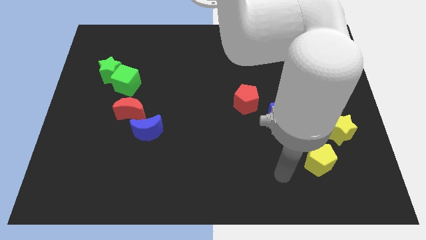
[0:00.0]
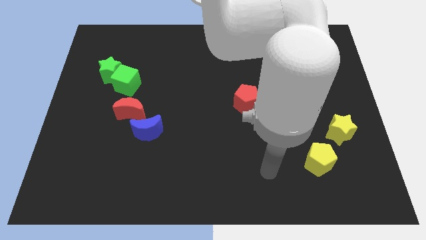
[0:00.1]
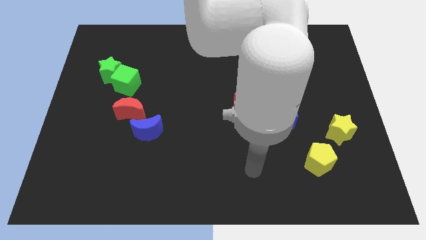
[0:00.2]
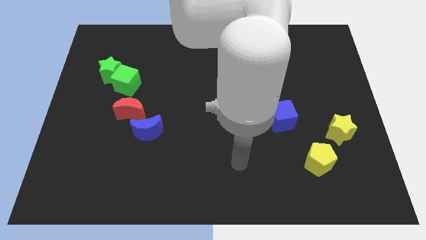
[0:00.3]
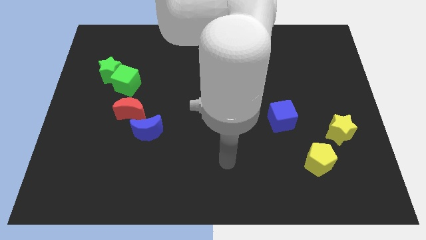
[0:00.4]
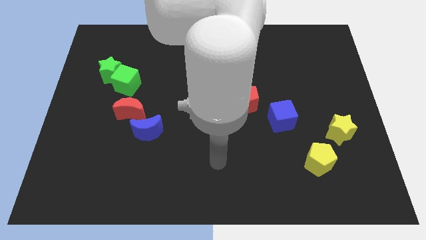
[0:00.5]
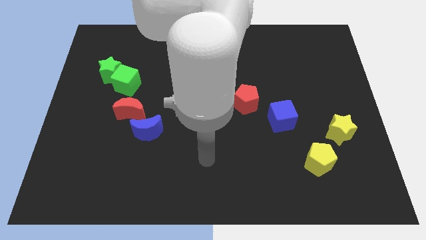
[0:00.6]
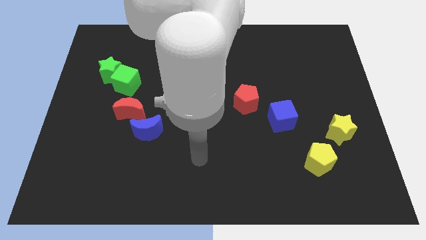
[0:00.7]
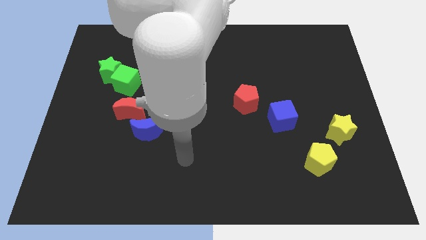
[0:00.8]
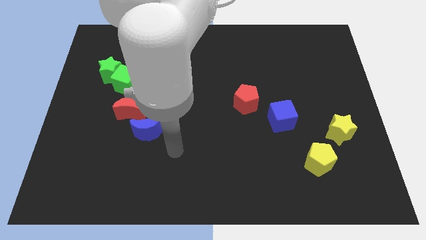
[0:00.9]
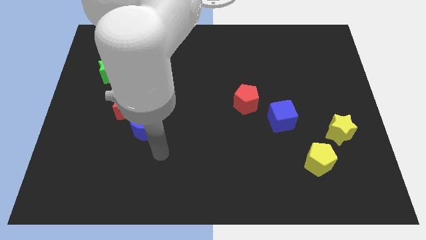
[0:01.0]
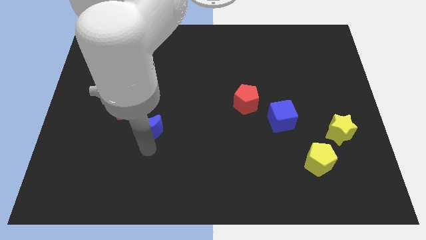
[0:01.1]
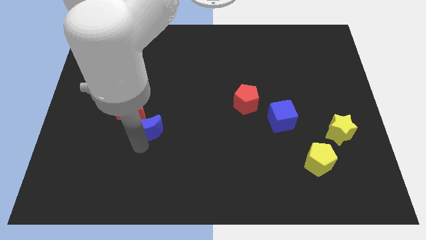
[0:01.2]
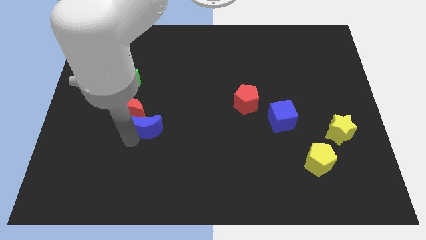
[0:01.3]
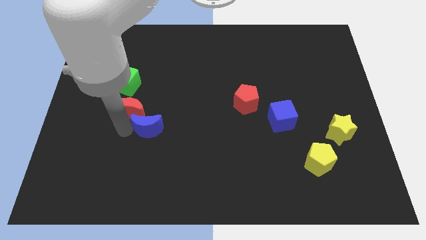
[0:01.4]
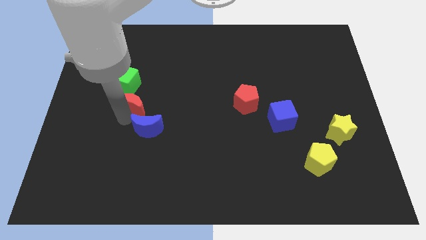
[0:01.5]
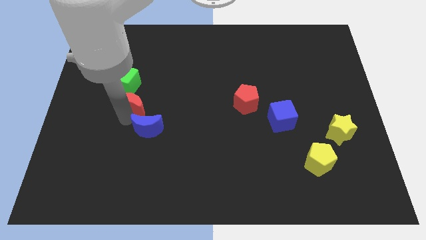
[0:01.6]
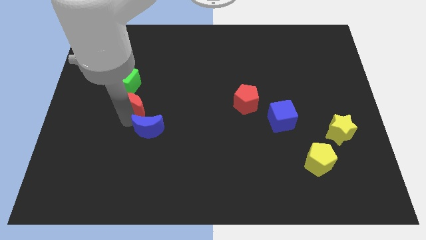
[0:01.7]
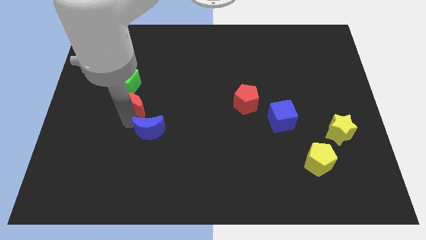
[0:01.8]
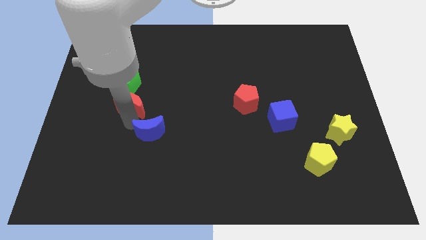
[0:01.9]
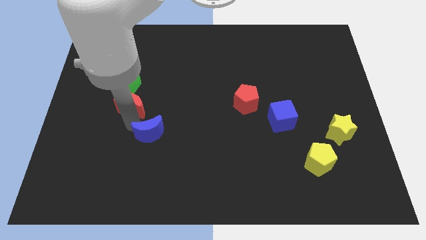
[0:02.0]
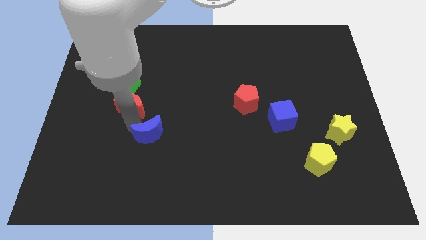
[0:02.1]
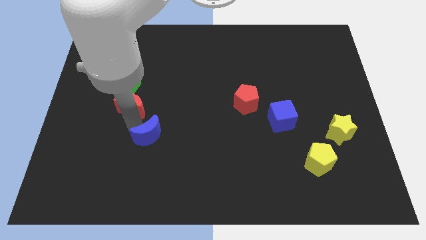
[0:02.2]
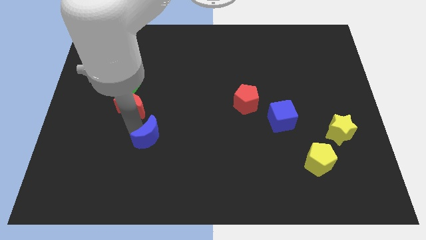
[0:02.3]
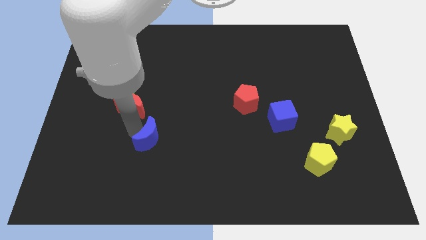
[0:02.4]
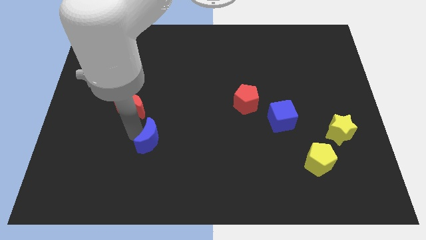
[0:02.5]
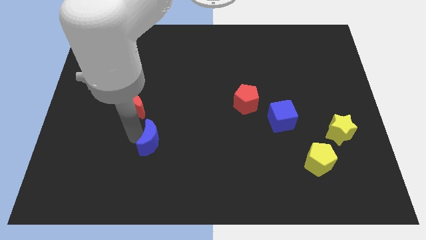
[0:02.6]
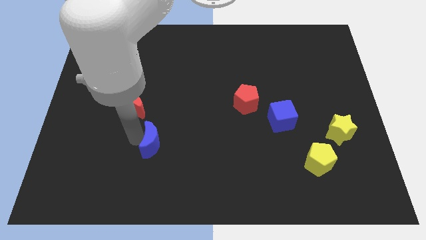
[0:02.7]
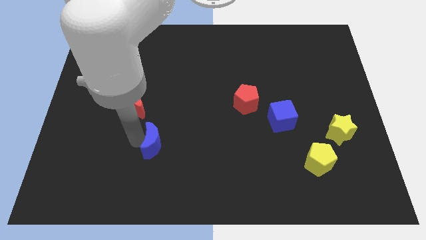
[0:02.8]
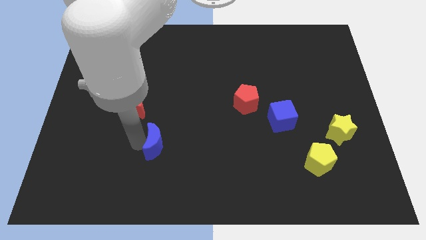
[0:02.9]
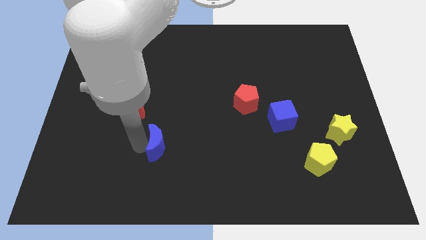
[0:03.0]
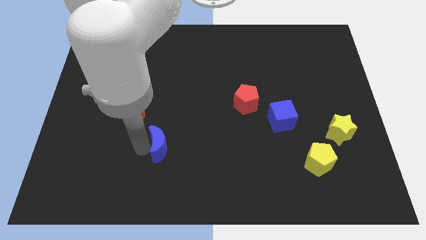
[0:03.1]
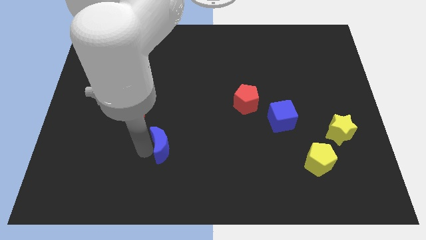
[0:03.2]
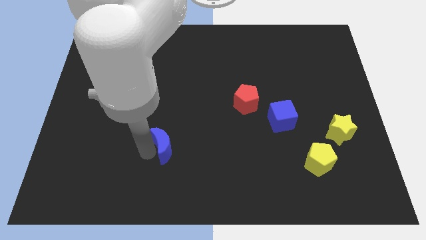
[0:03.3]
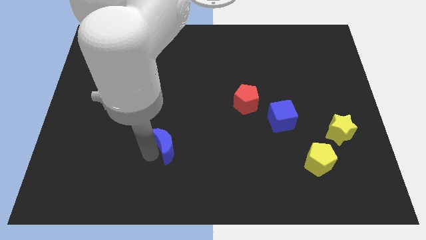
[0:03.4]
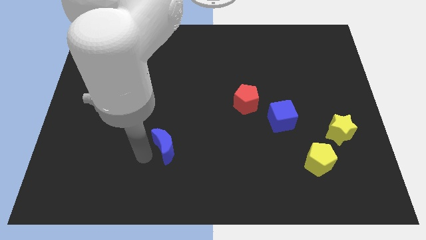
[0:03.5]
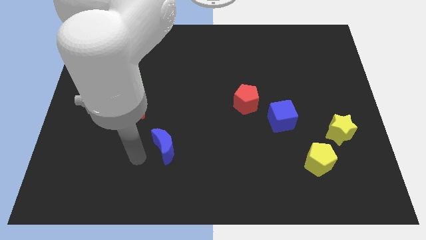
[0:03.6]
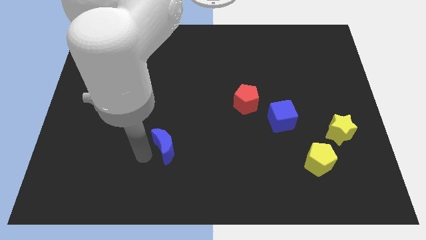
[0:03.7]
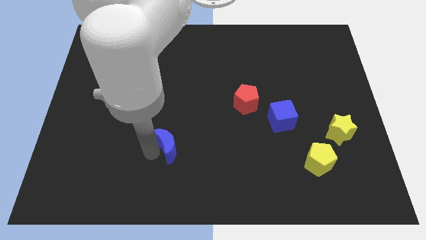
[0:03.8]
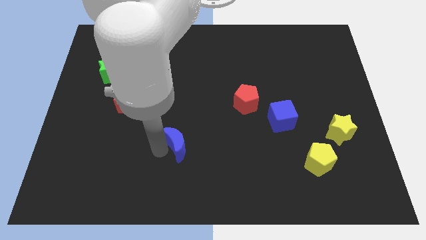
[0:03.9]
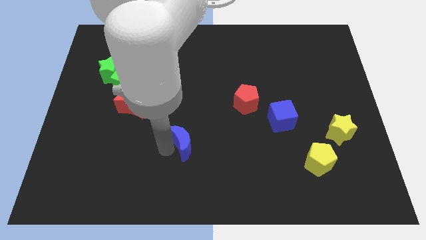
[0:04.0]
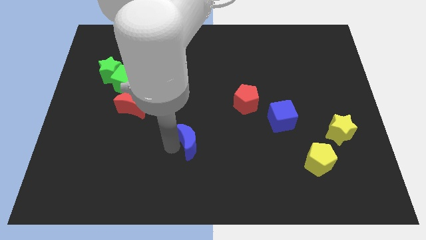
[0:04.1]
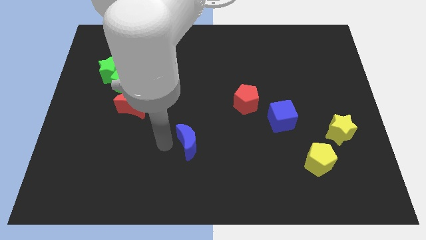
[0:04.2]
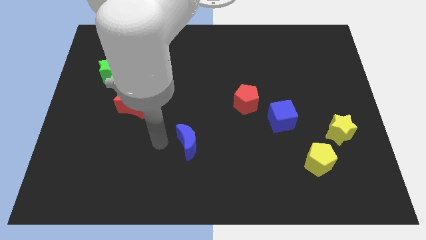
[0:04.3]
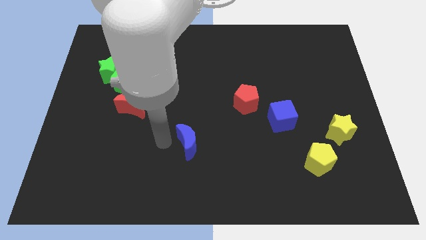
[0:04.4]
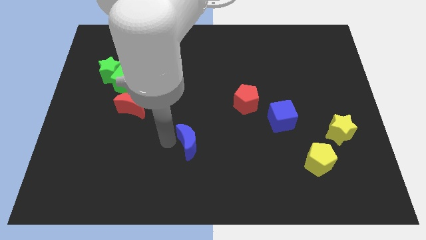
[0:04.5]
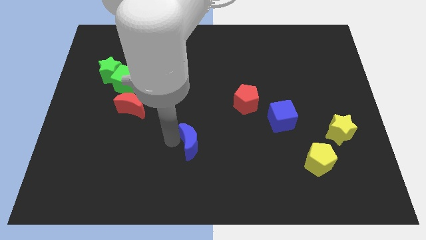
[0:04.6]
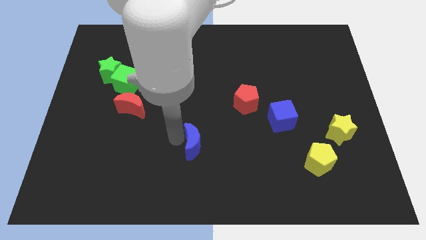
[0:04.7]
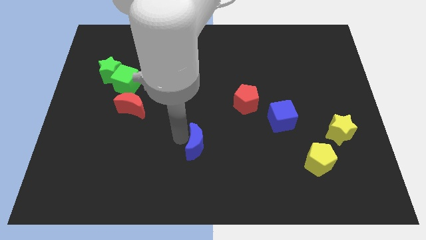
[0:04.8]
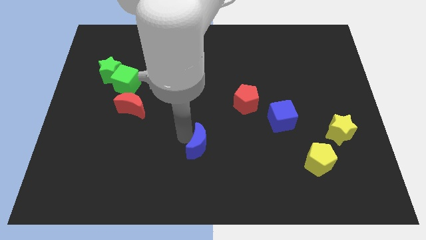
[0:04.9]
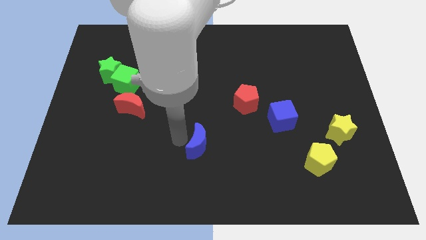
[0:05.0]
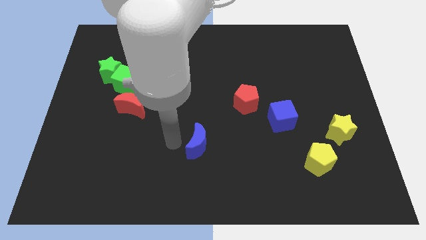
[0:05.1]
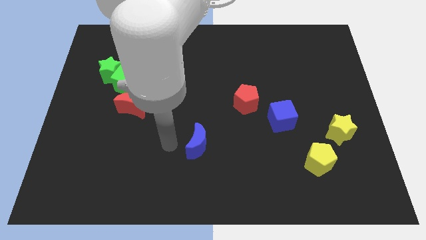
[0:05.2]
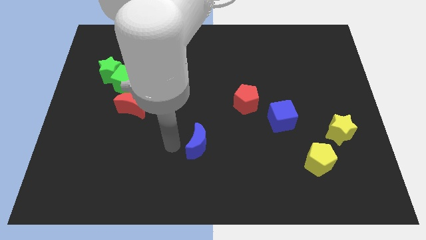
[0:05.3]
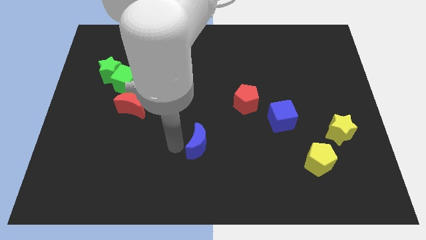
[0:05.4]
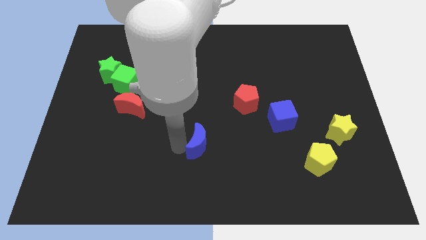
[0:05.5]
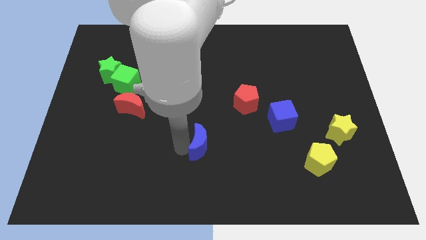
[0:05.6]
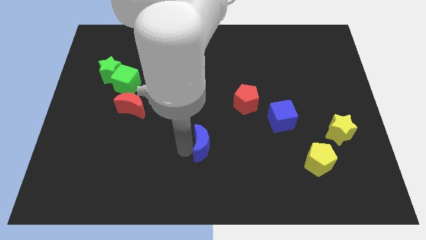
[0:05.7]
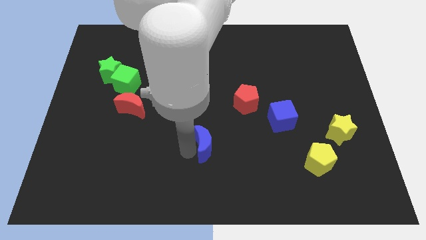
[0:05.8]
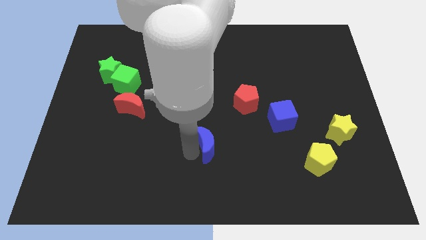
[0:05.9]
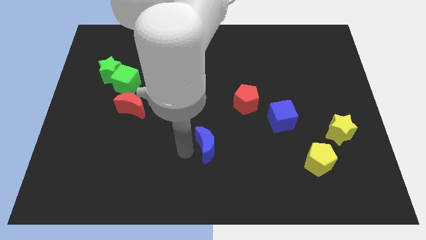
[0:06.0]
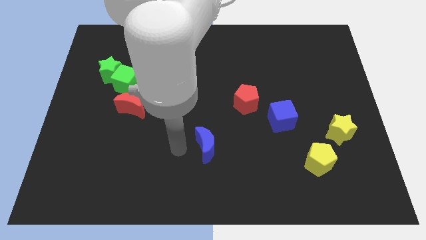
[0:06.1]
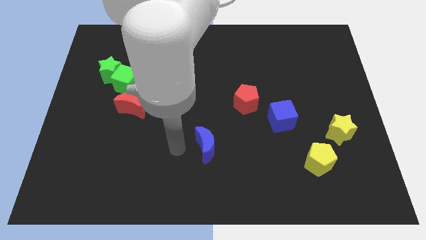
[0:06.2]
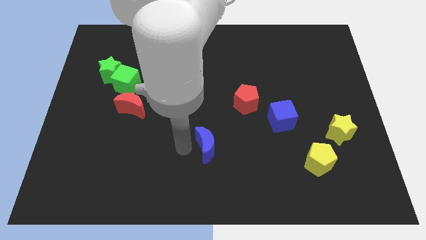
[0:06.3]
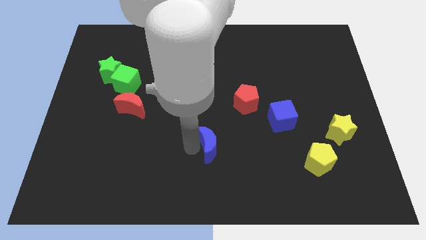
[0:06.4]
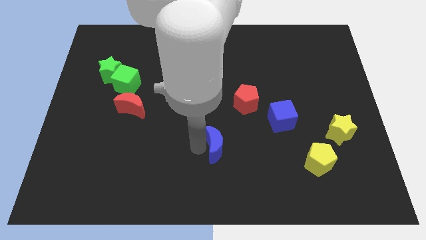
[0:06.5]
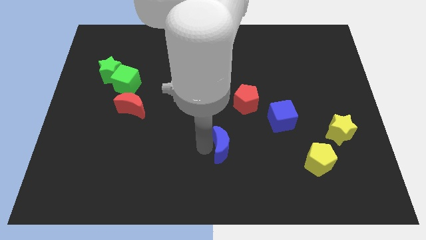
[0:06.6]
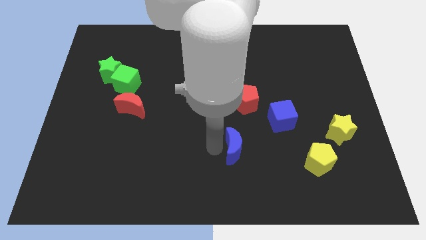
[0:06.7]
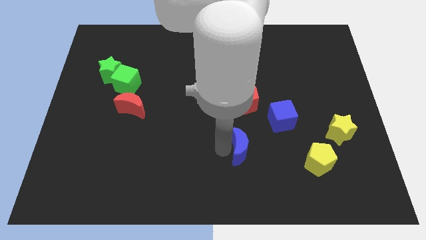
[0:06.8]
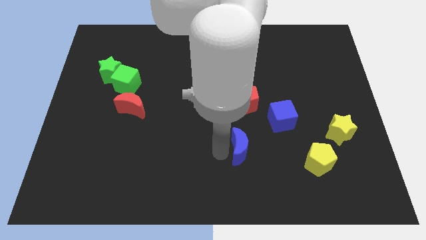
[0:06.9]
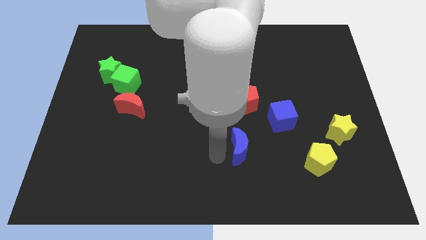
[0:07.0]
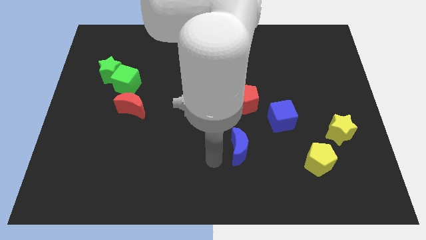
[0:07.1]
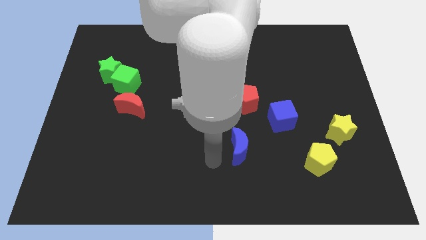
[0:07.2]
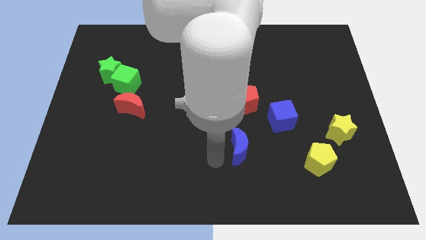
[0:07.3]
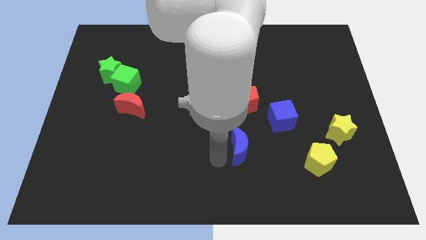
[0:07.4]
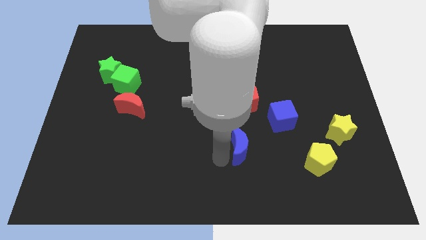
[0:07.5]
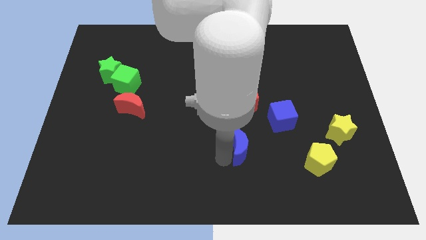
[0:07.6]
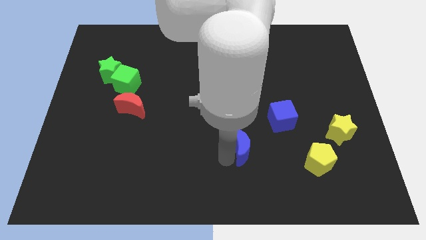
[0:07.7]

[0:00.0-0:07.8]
push the blue moon to the right
